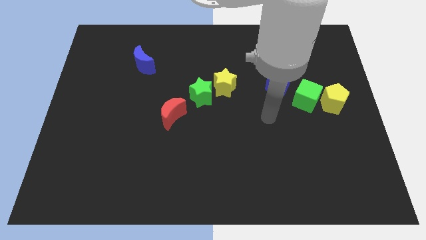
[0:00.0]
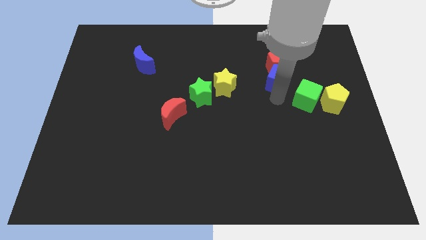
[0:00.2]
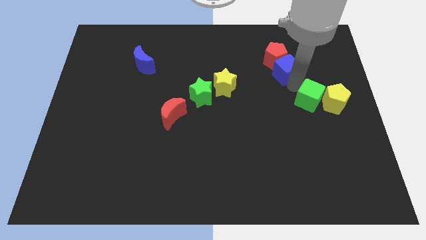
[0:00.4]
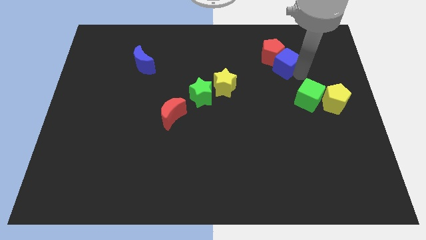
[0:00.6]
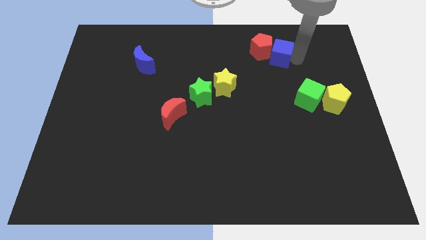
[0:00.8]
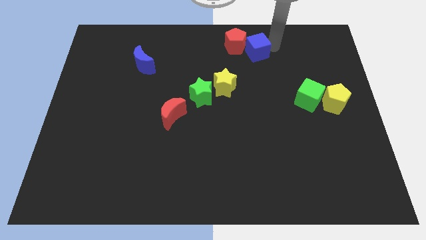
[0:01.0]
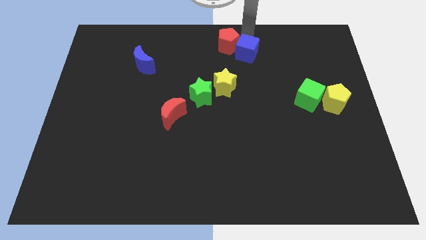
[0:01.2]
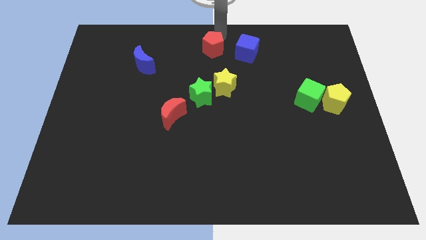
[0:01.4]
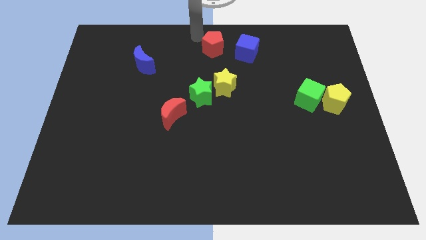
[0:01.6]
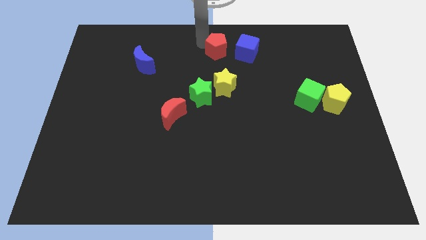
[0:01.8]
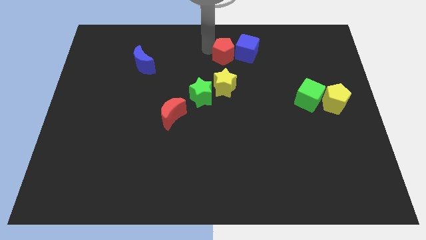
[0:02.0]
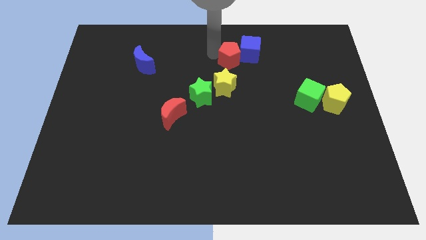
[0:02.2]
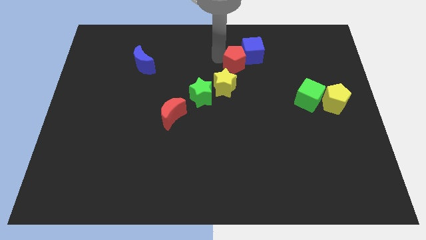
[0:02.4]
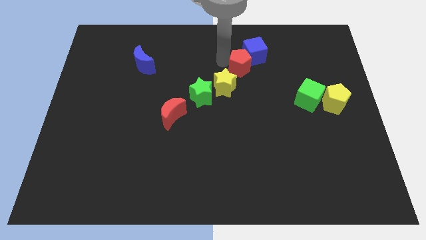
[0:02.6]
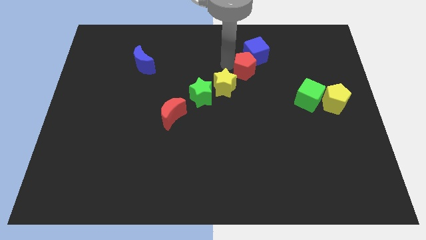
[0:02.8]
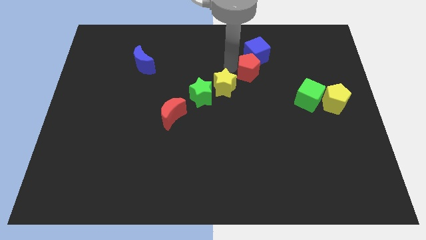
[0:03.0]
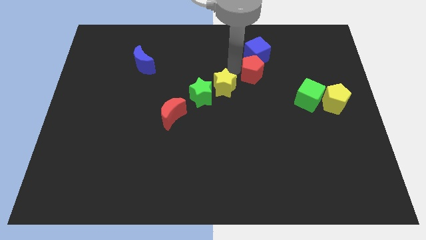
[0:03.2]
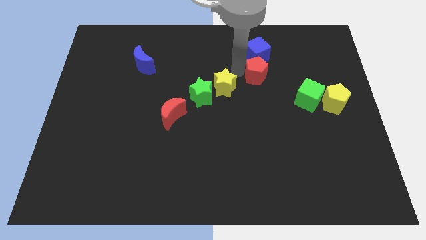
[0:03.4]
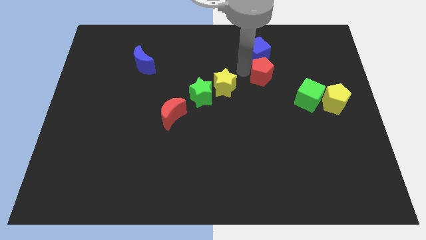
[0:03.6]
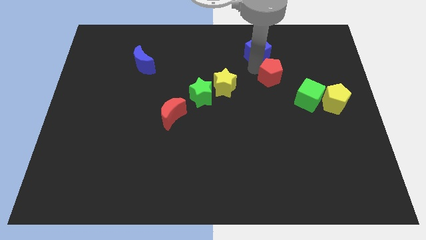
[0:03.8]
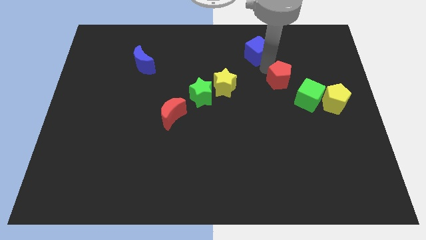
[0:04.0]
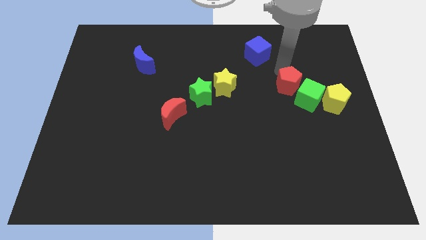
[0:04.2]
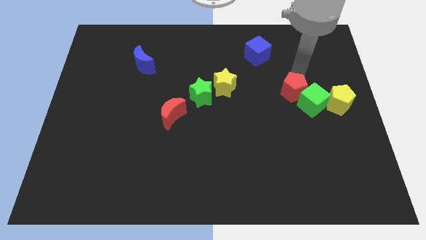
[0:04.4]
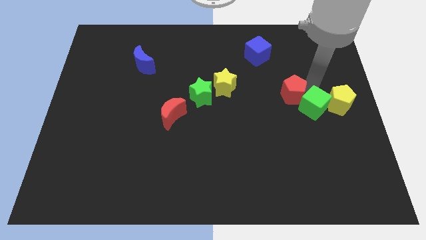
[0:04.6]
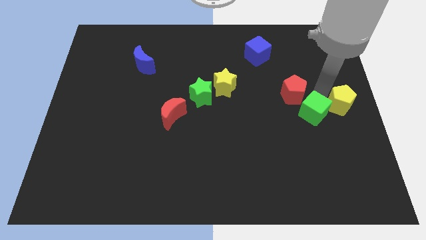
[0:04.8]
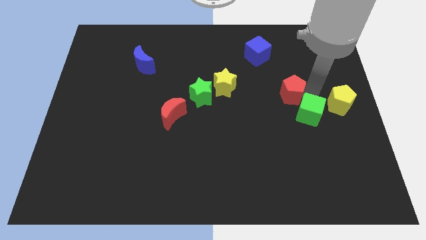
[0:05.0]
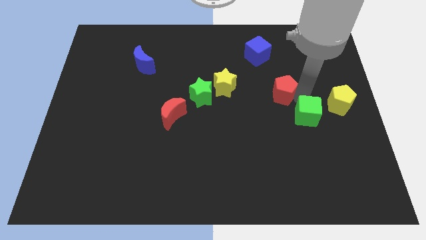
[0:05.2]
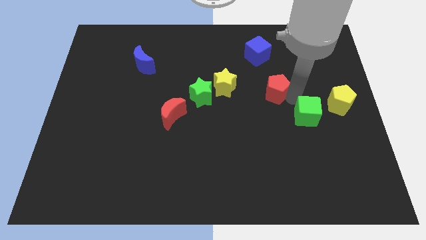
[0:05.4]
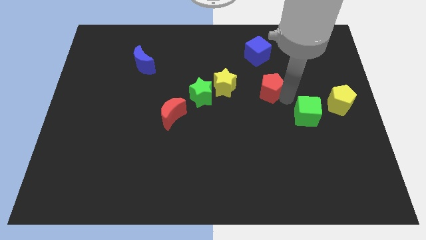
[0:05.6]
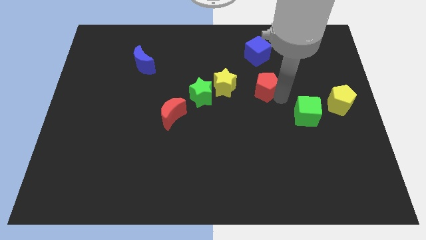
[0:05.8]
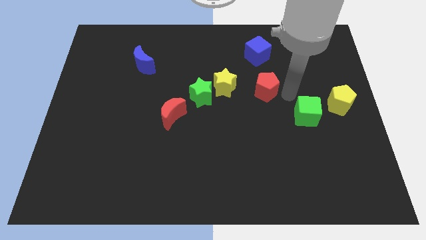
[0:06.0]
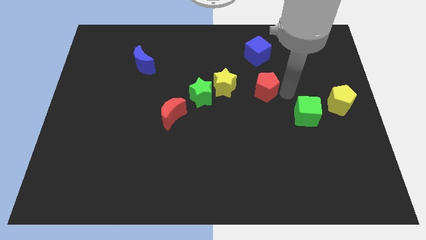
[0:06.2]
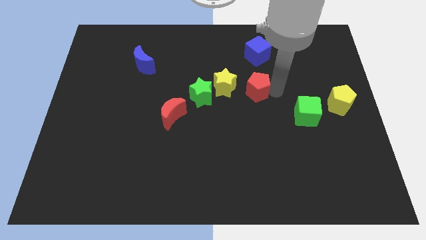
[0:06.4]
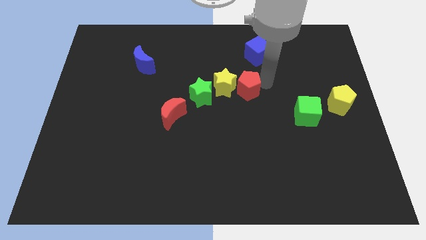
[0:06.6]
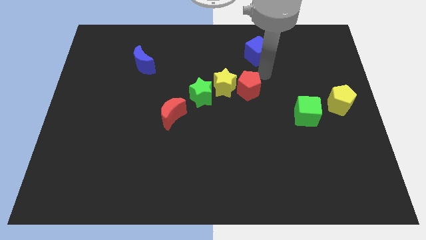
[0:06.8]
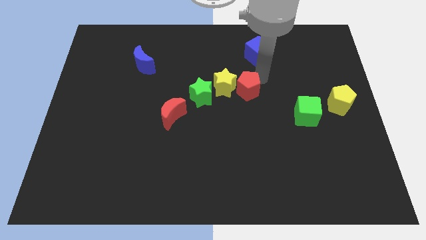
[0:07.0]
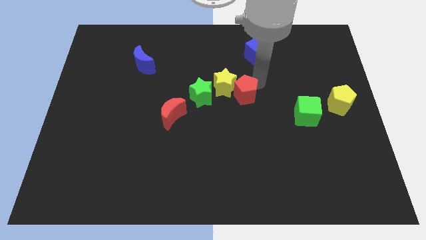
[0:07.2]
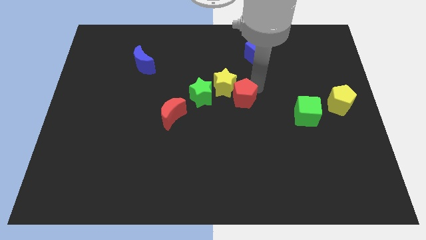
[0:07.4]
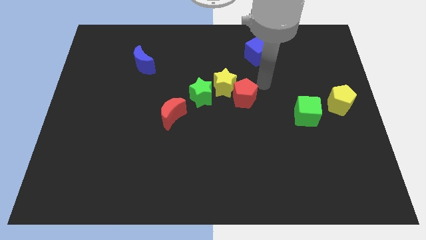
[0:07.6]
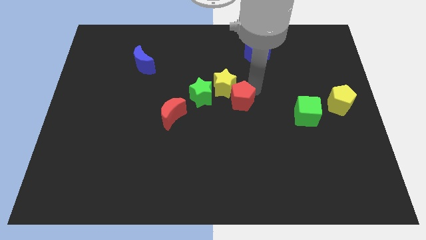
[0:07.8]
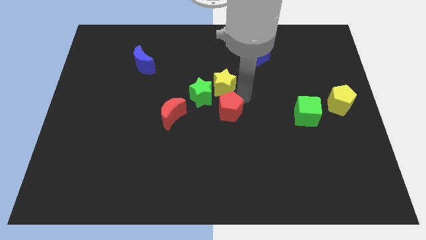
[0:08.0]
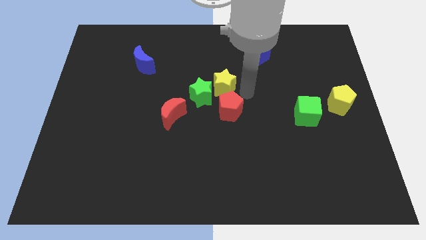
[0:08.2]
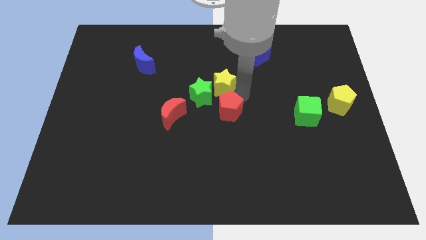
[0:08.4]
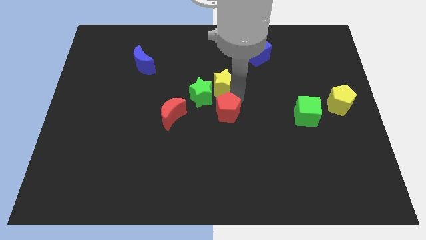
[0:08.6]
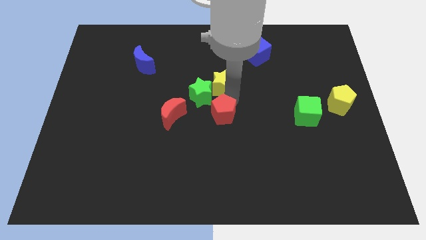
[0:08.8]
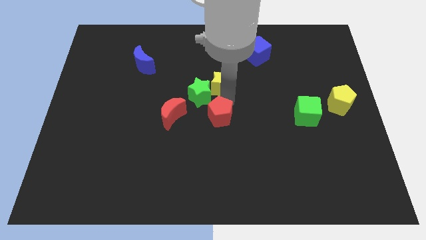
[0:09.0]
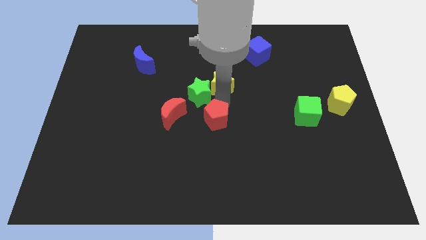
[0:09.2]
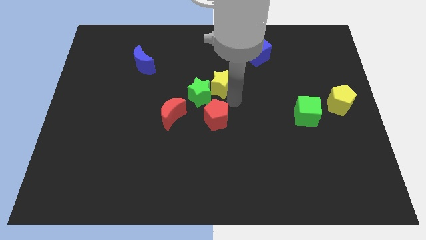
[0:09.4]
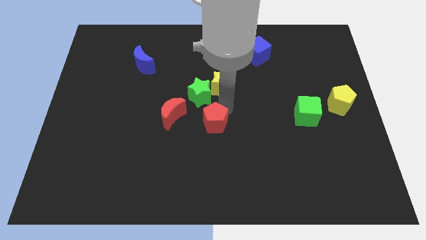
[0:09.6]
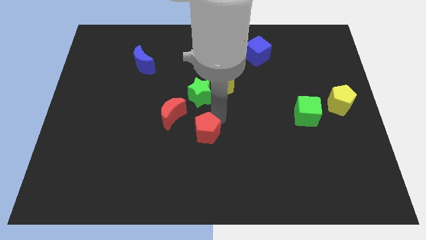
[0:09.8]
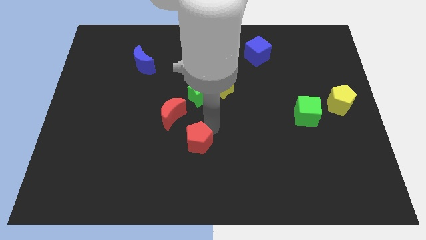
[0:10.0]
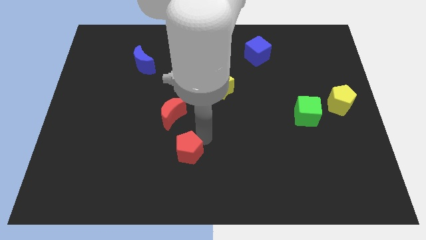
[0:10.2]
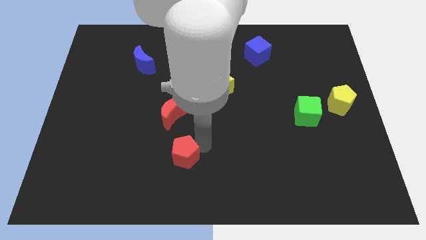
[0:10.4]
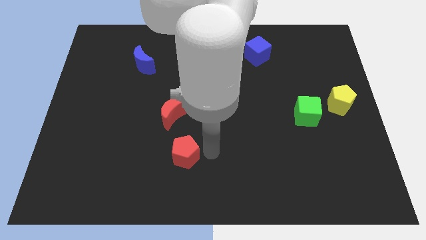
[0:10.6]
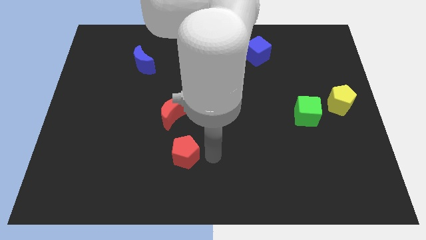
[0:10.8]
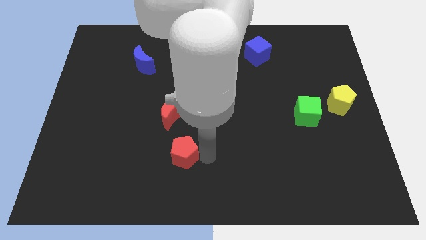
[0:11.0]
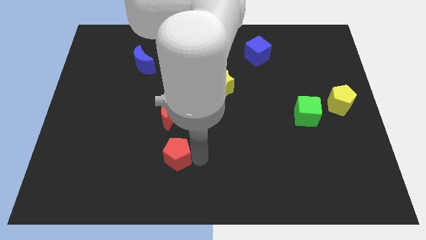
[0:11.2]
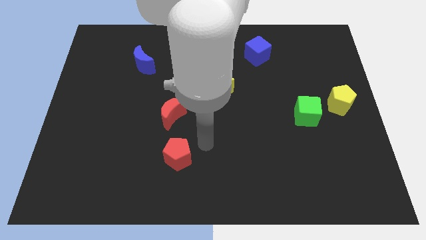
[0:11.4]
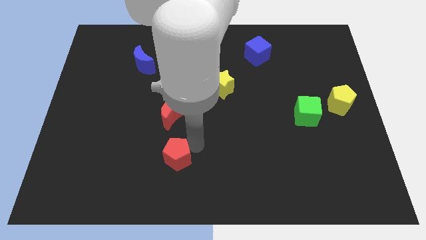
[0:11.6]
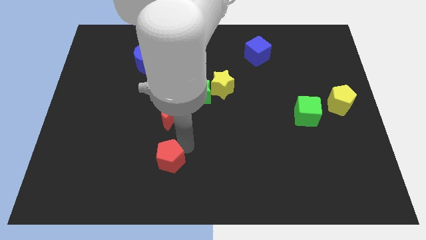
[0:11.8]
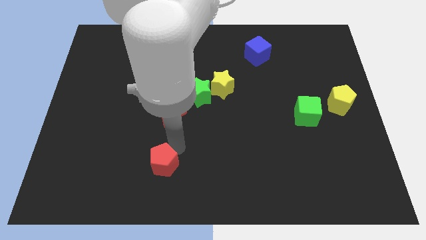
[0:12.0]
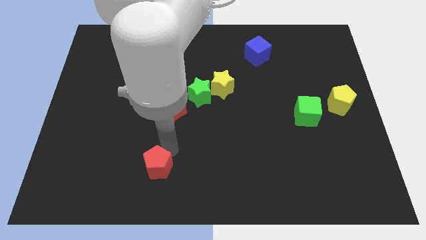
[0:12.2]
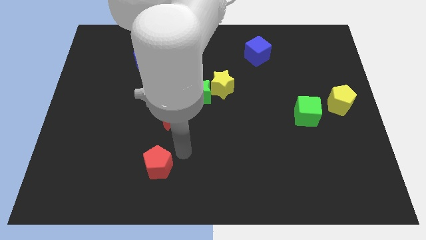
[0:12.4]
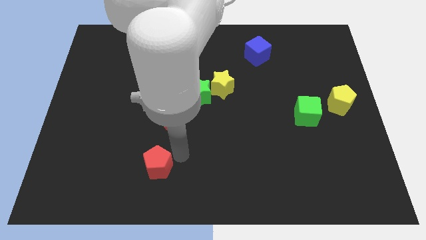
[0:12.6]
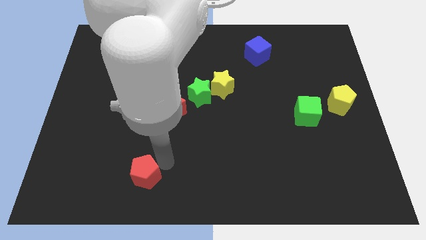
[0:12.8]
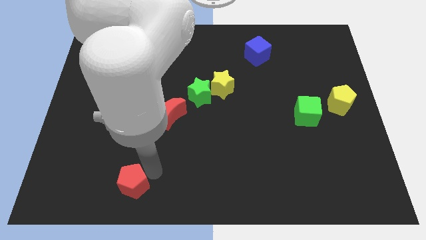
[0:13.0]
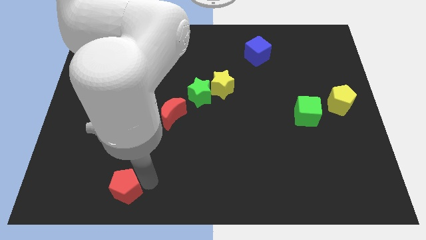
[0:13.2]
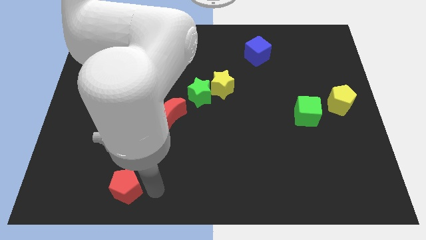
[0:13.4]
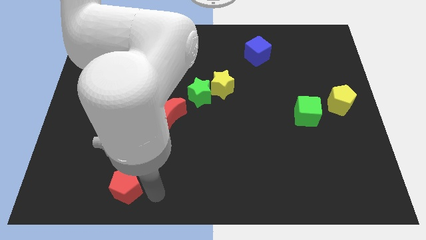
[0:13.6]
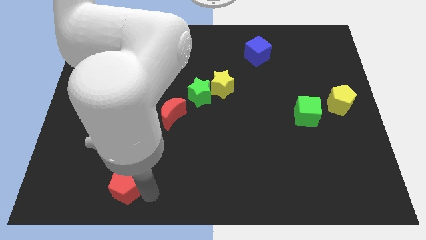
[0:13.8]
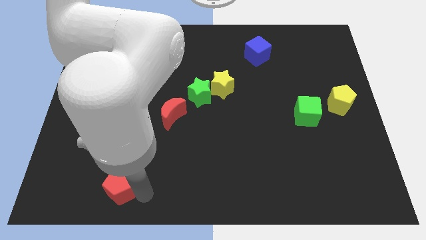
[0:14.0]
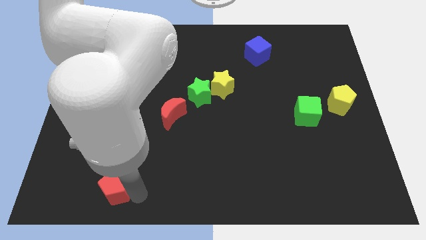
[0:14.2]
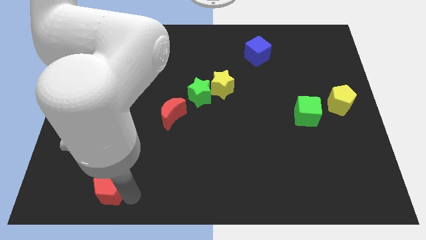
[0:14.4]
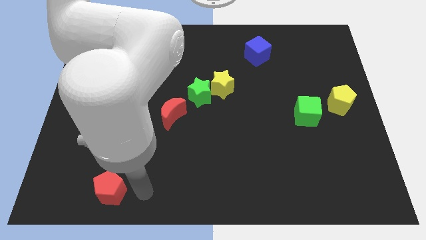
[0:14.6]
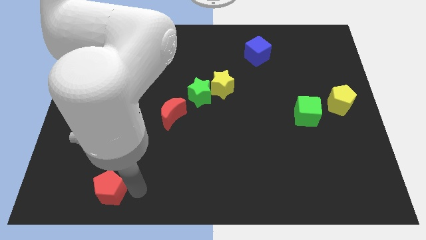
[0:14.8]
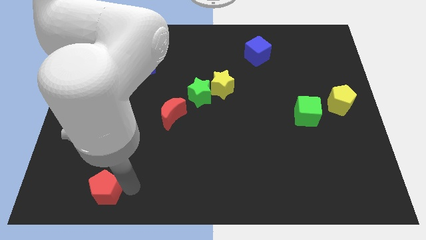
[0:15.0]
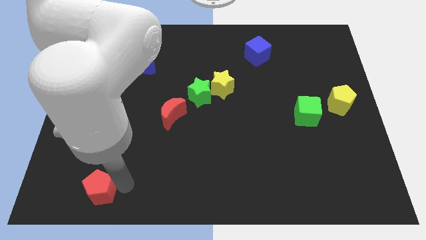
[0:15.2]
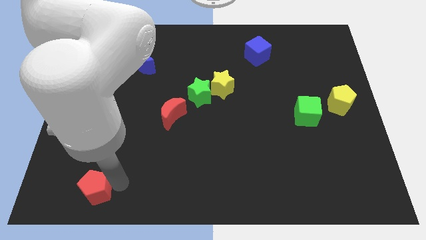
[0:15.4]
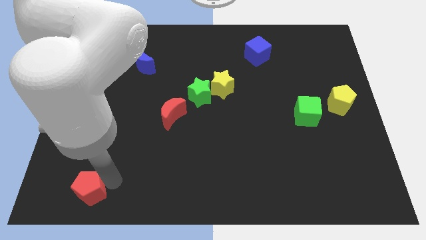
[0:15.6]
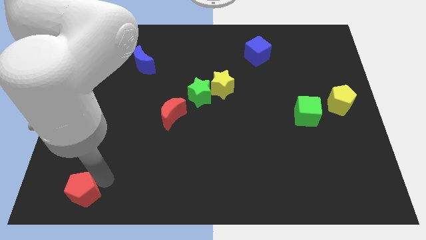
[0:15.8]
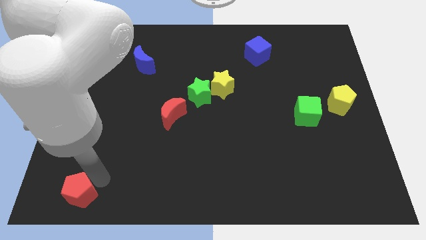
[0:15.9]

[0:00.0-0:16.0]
move the red pentagon to the bottom left corner
